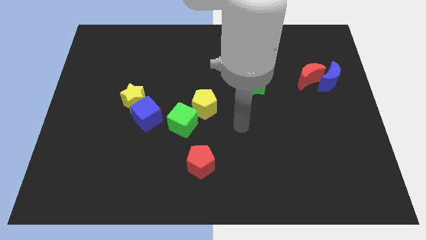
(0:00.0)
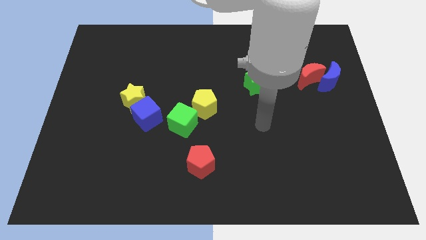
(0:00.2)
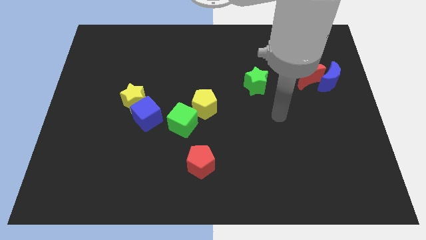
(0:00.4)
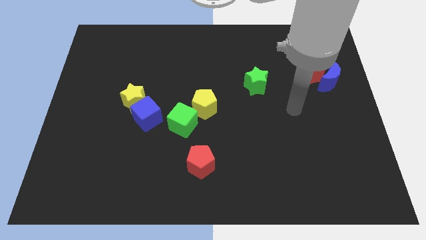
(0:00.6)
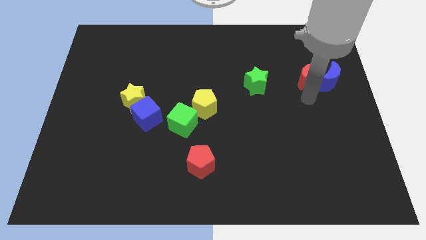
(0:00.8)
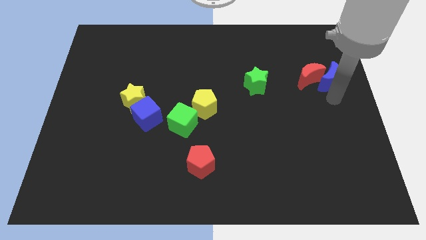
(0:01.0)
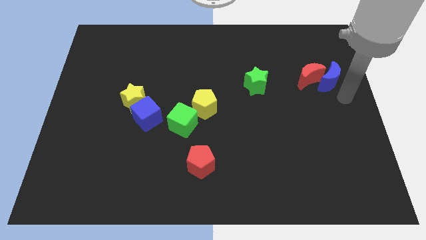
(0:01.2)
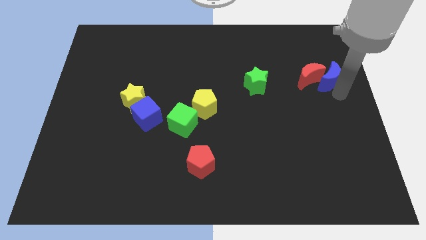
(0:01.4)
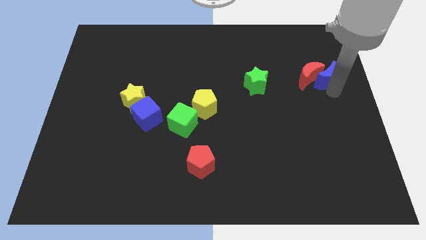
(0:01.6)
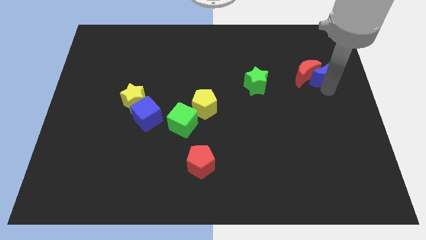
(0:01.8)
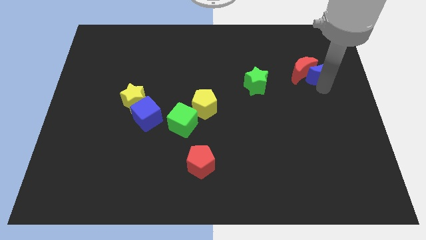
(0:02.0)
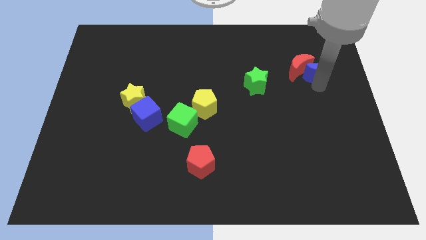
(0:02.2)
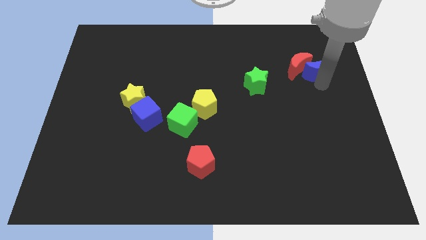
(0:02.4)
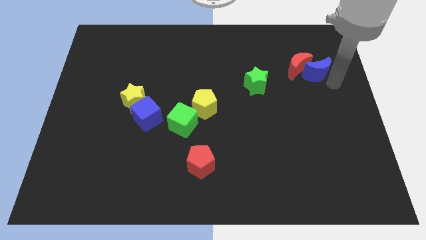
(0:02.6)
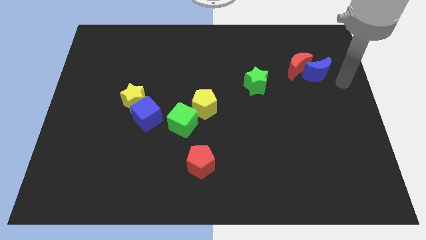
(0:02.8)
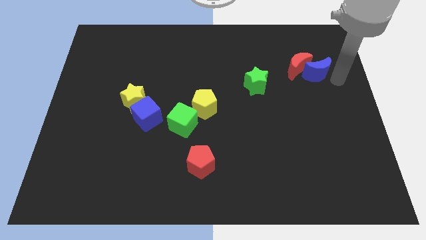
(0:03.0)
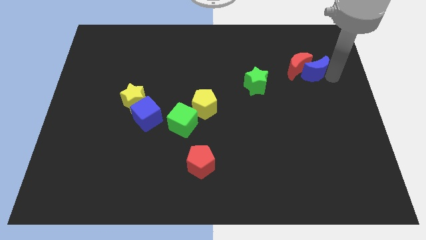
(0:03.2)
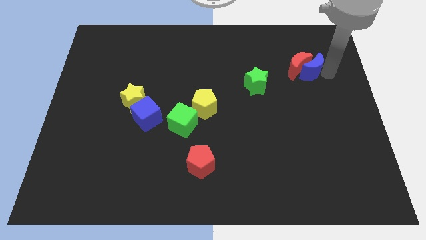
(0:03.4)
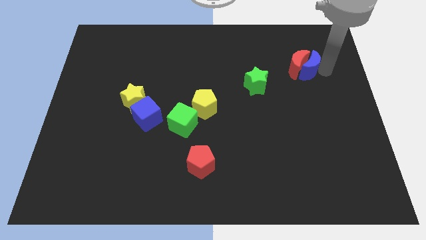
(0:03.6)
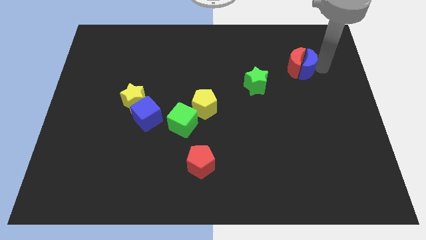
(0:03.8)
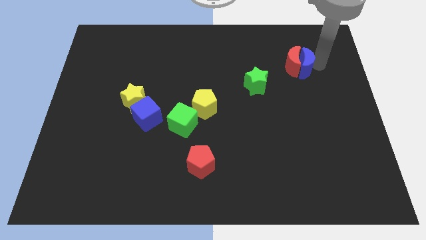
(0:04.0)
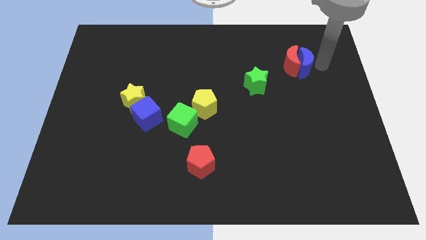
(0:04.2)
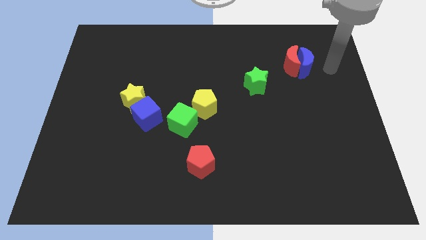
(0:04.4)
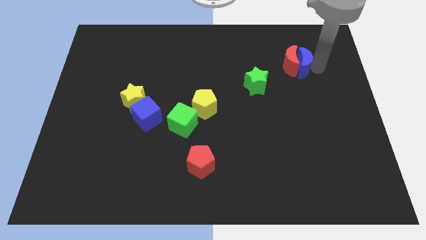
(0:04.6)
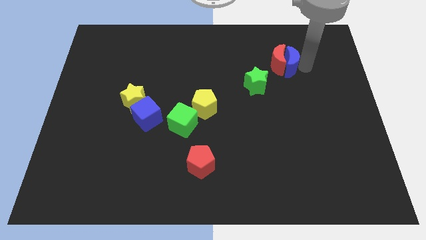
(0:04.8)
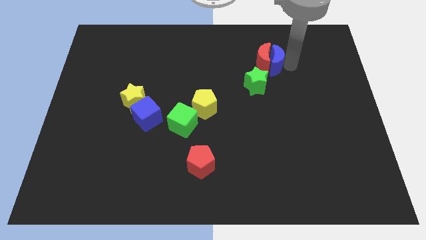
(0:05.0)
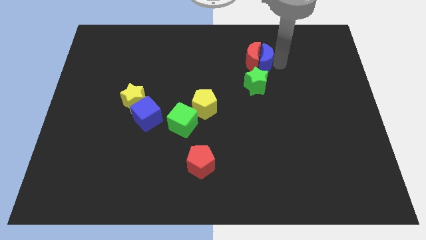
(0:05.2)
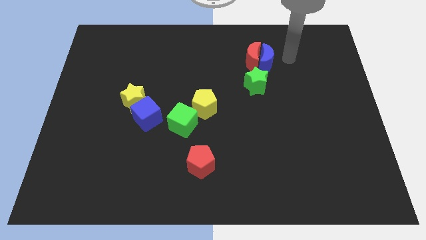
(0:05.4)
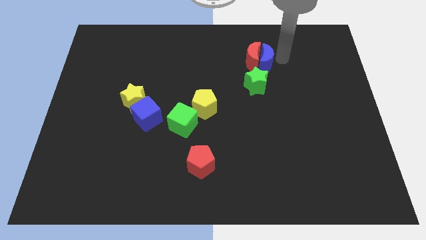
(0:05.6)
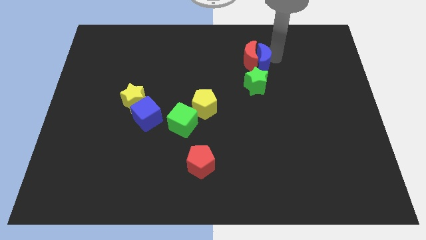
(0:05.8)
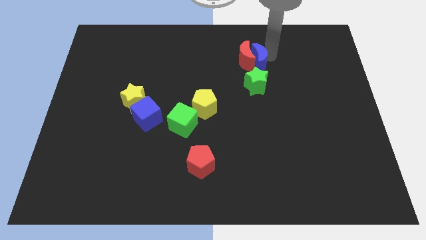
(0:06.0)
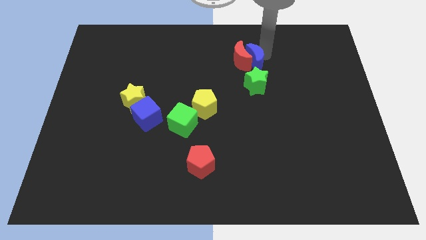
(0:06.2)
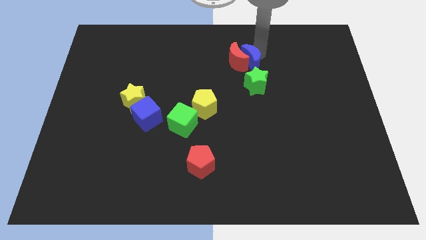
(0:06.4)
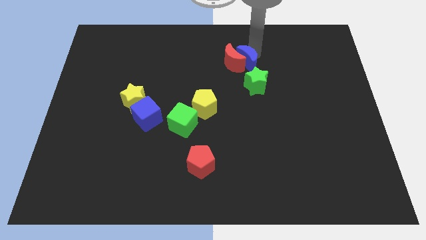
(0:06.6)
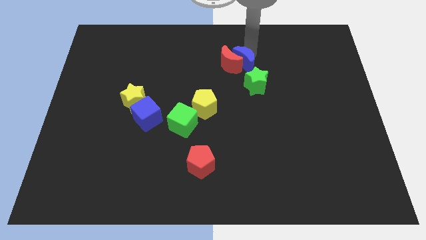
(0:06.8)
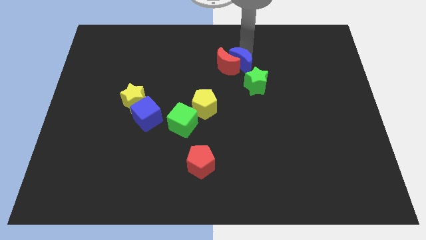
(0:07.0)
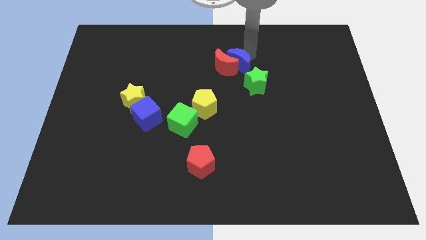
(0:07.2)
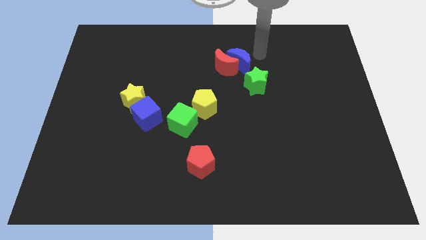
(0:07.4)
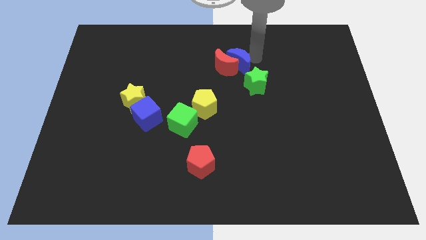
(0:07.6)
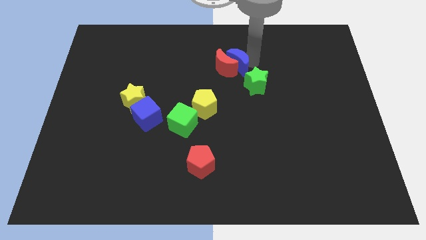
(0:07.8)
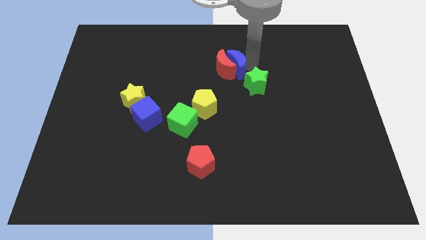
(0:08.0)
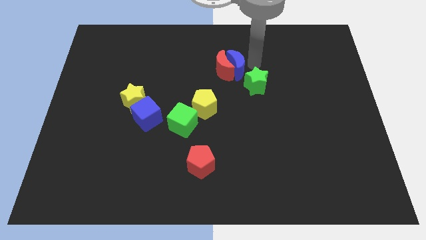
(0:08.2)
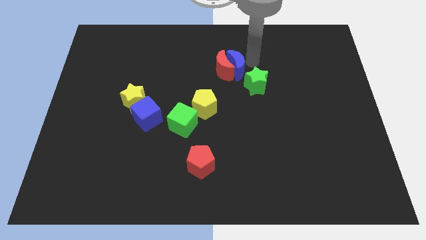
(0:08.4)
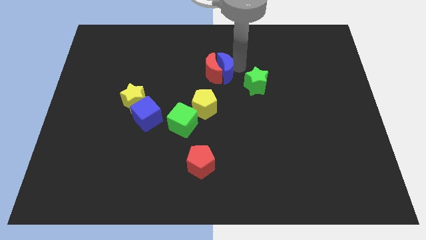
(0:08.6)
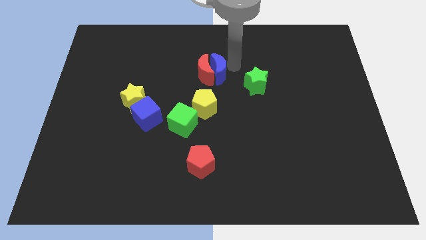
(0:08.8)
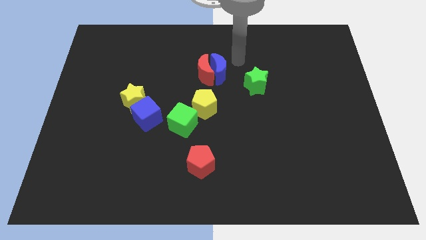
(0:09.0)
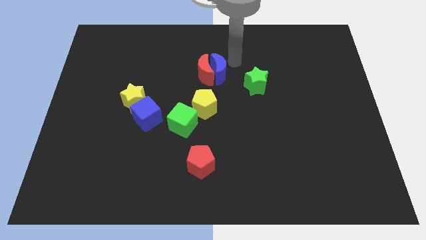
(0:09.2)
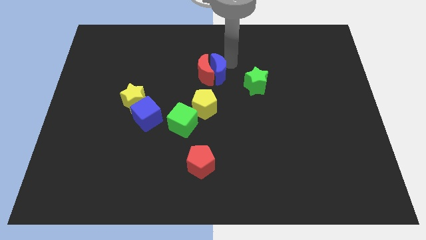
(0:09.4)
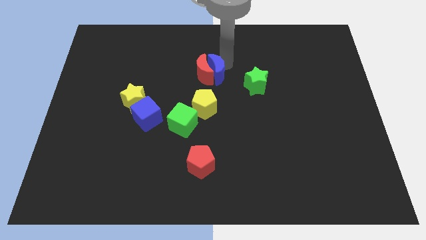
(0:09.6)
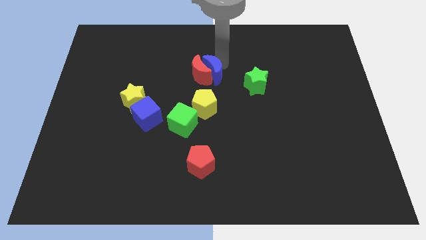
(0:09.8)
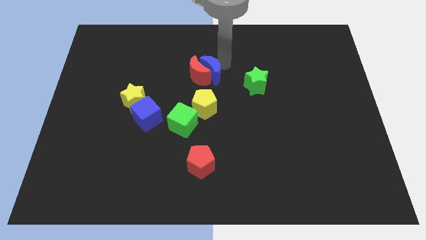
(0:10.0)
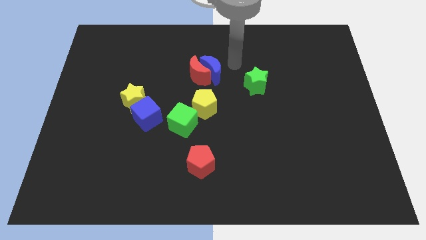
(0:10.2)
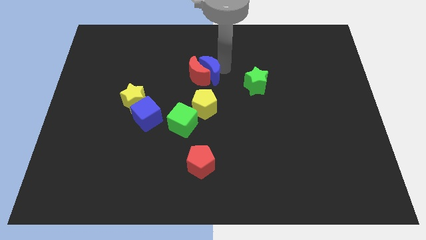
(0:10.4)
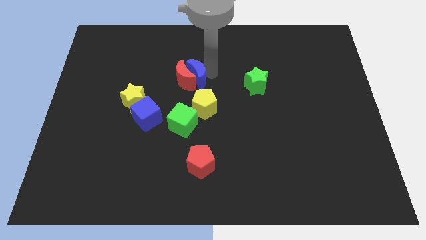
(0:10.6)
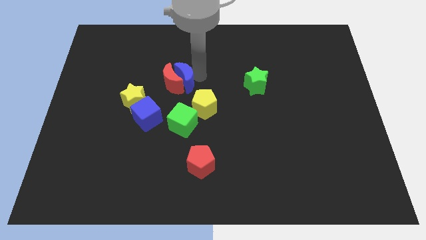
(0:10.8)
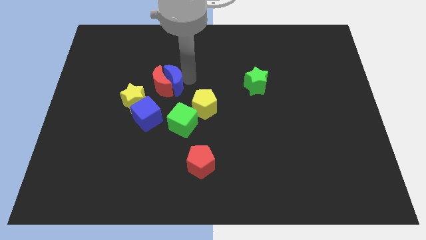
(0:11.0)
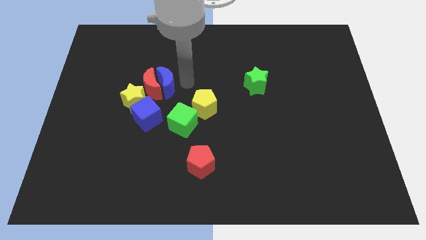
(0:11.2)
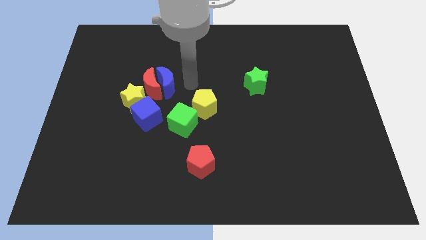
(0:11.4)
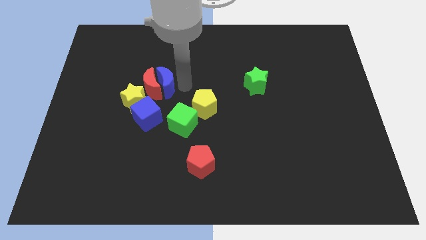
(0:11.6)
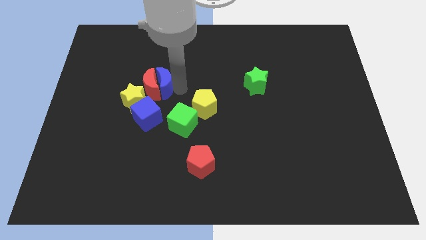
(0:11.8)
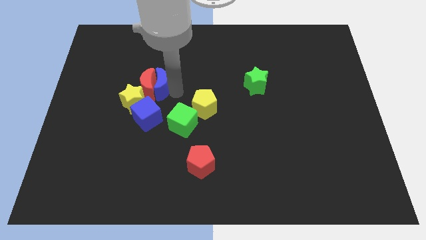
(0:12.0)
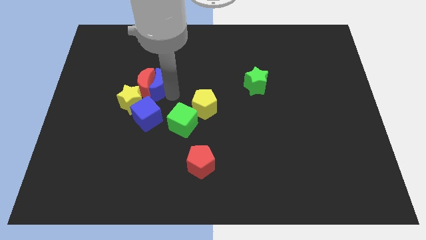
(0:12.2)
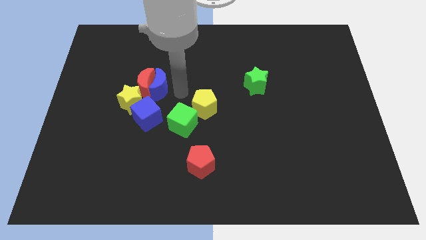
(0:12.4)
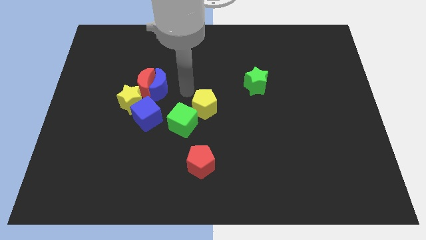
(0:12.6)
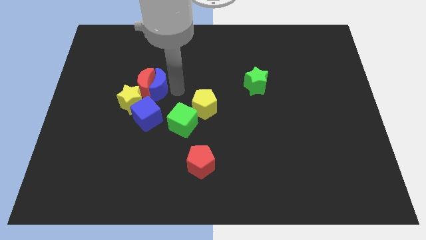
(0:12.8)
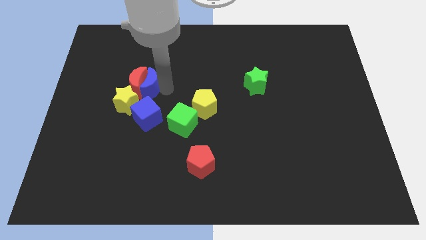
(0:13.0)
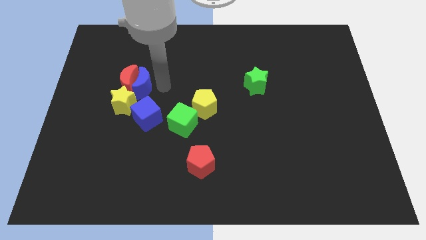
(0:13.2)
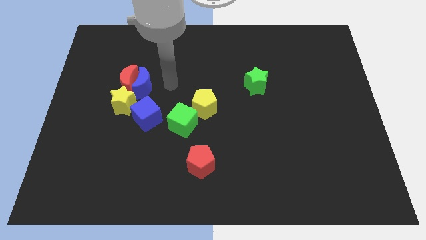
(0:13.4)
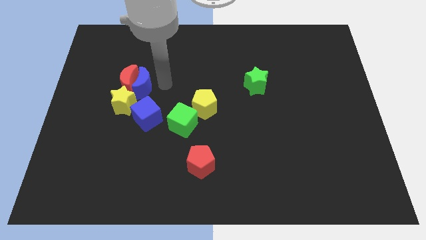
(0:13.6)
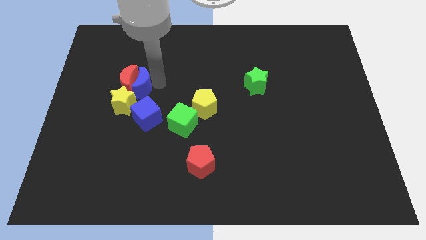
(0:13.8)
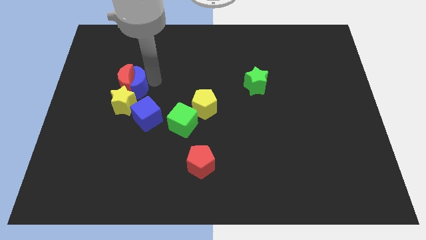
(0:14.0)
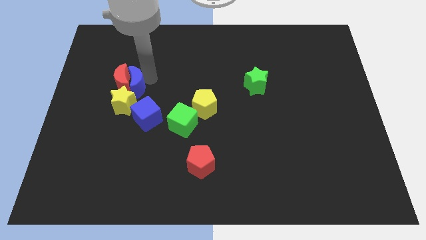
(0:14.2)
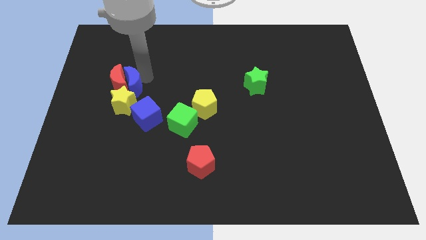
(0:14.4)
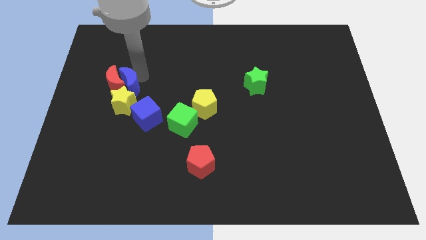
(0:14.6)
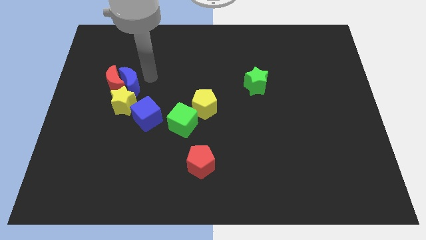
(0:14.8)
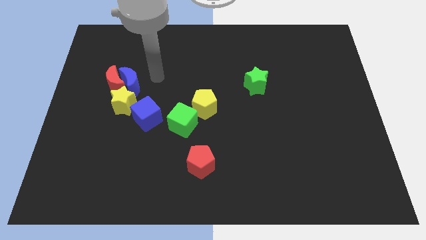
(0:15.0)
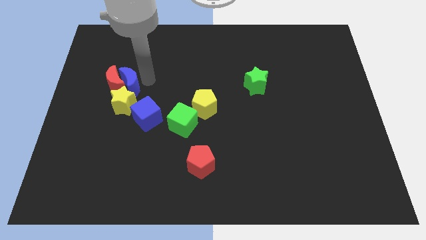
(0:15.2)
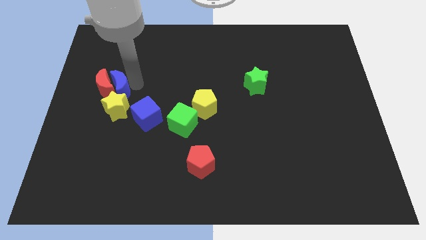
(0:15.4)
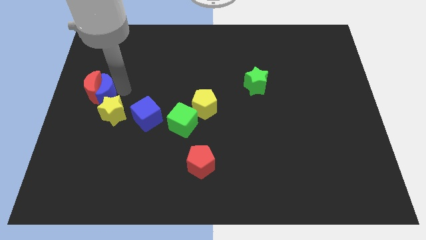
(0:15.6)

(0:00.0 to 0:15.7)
move the blue moon to the center left

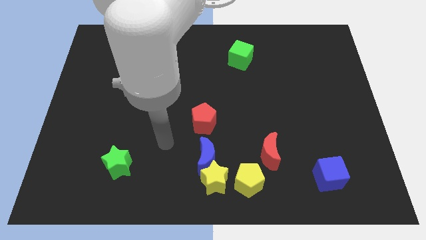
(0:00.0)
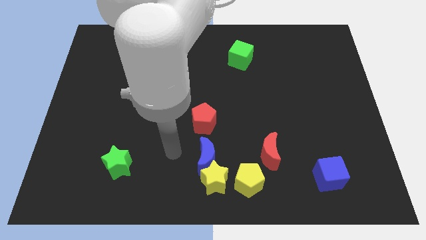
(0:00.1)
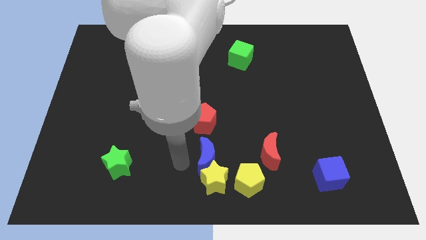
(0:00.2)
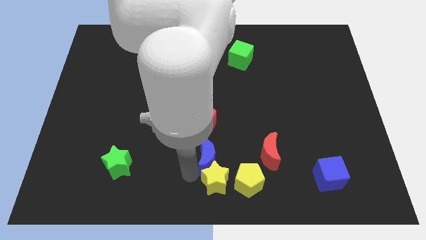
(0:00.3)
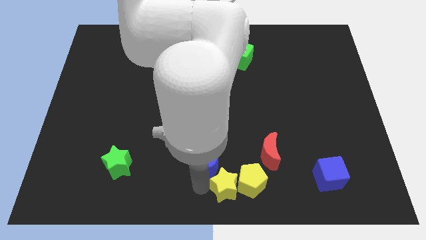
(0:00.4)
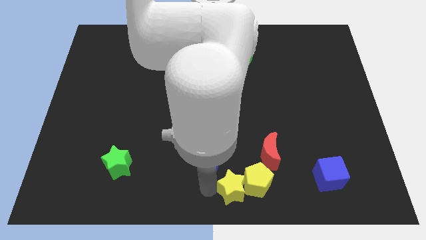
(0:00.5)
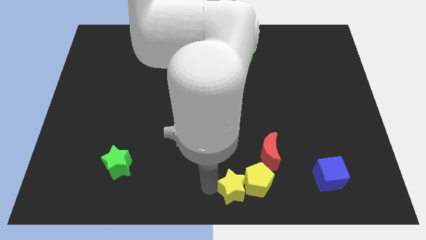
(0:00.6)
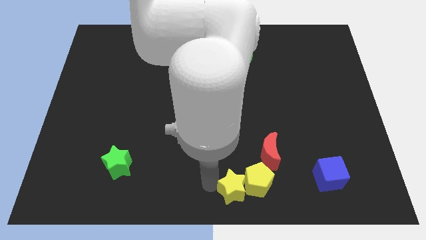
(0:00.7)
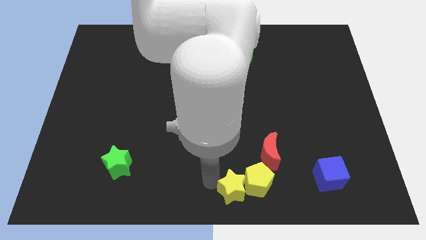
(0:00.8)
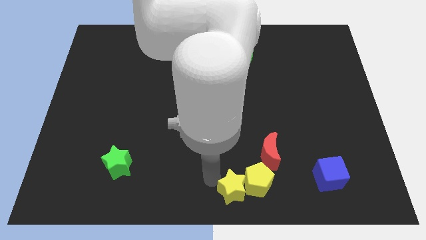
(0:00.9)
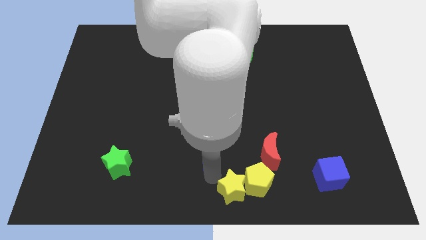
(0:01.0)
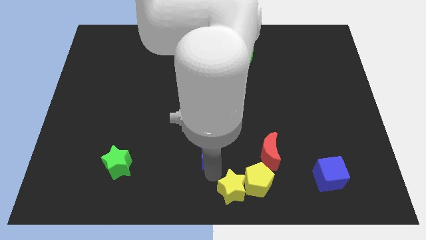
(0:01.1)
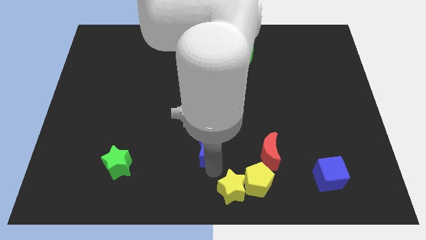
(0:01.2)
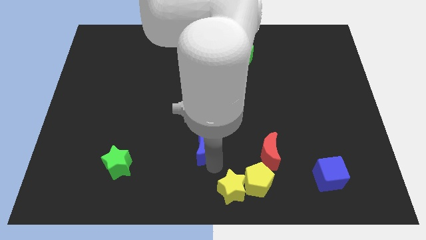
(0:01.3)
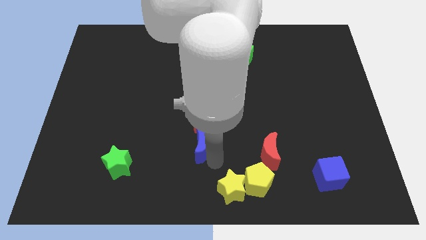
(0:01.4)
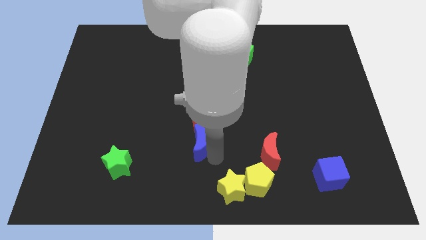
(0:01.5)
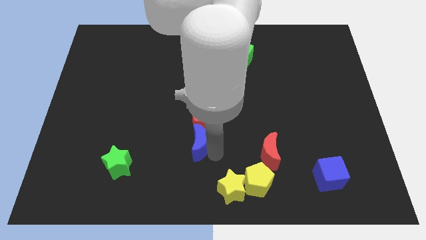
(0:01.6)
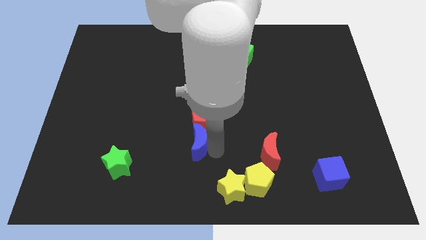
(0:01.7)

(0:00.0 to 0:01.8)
put the blue moon to the middle of the board
